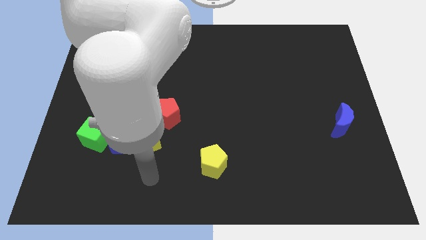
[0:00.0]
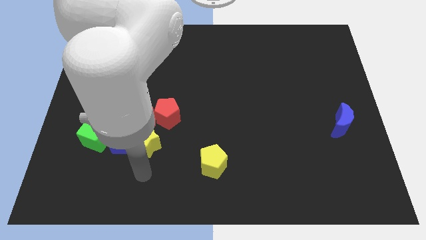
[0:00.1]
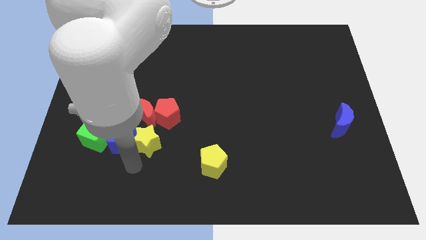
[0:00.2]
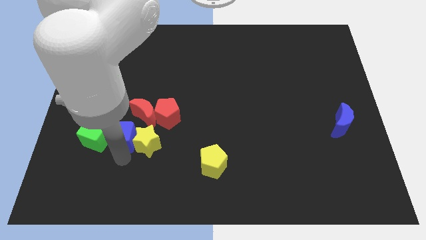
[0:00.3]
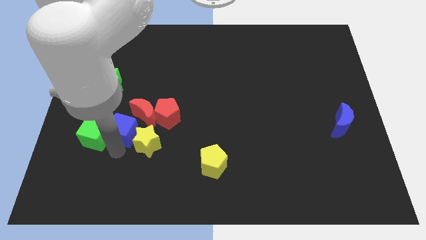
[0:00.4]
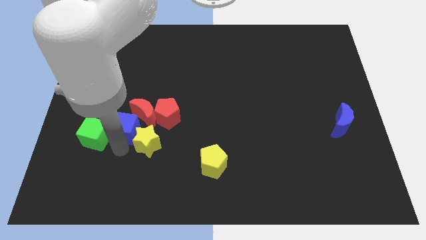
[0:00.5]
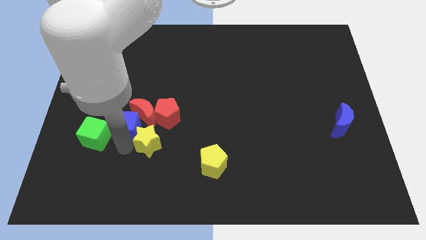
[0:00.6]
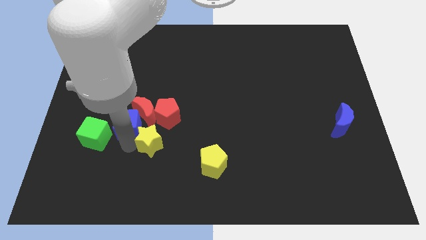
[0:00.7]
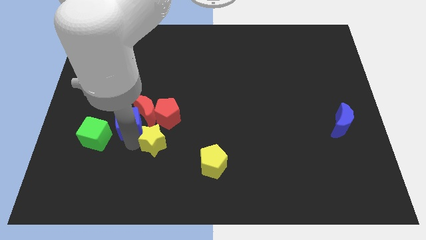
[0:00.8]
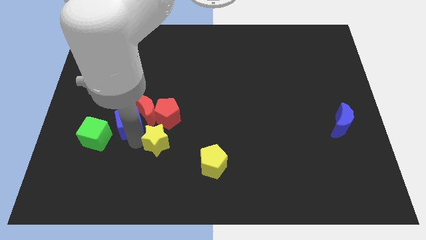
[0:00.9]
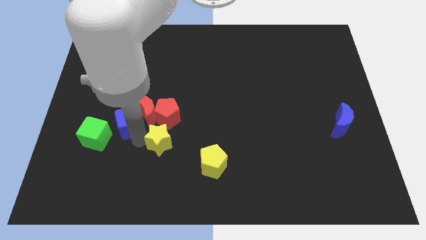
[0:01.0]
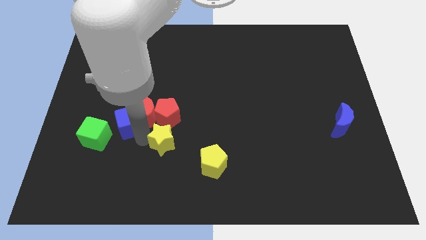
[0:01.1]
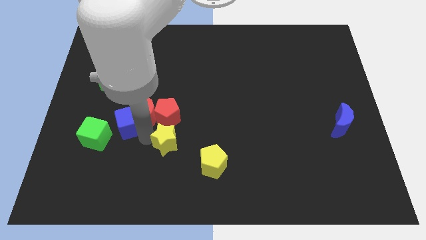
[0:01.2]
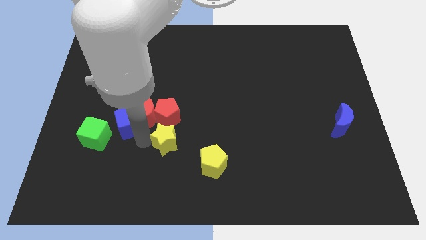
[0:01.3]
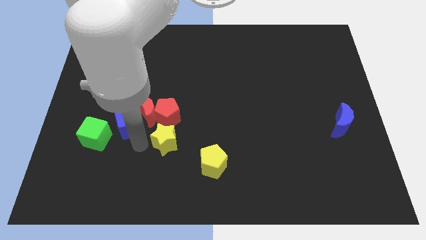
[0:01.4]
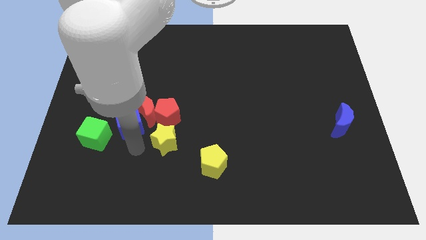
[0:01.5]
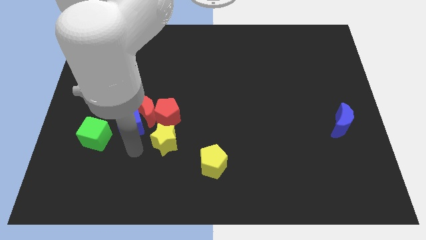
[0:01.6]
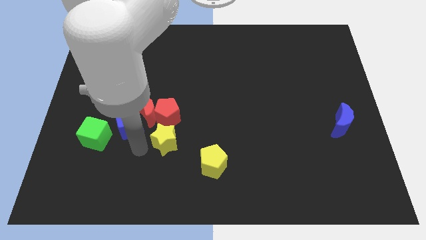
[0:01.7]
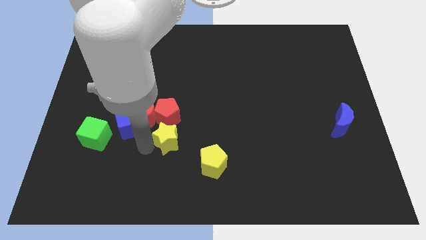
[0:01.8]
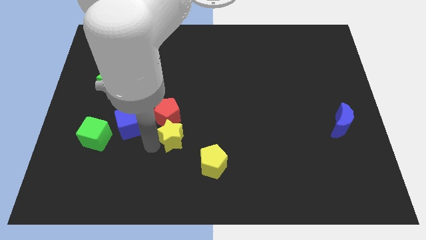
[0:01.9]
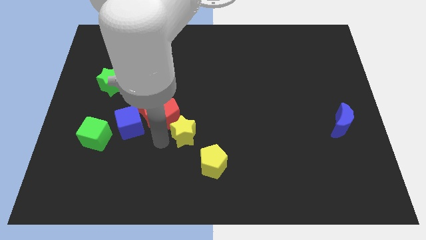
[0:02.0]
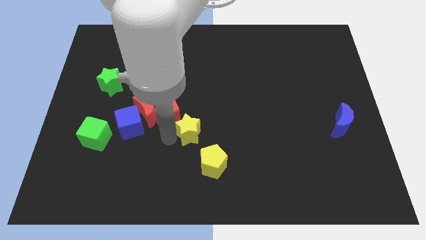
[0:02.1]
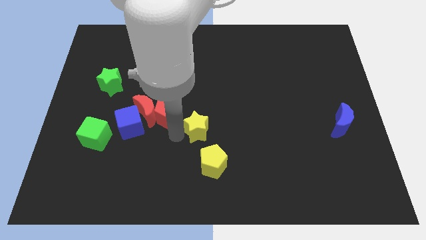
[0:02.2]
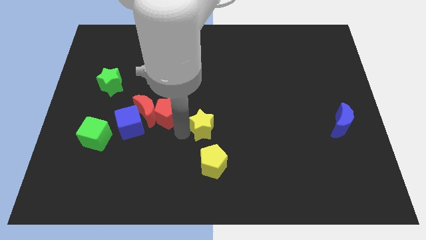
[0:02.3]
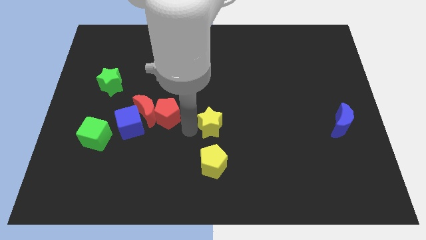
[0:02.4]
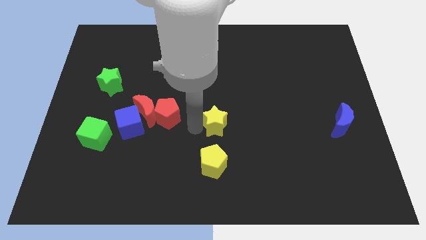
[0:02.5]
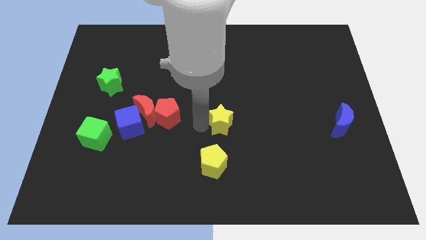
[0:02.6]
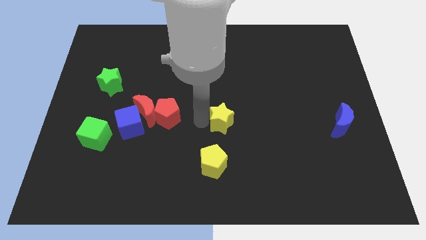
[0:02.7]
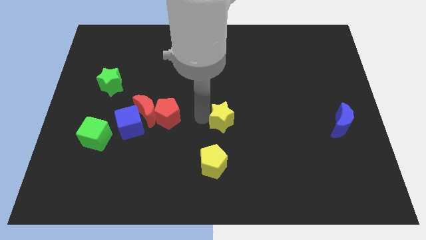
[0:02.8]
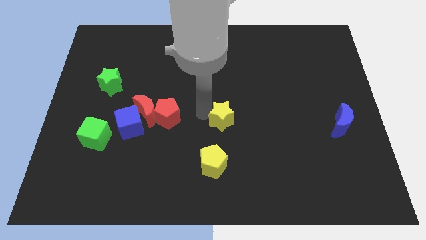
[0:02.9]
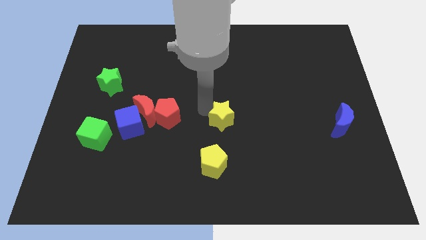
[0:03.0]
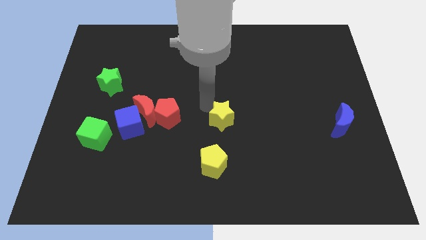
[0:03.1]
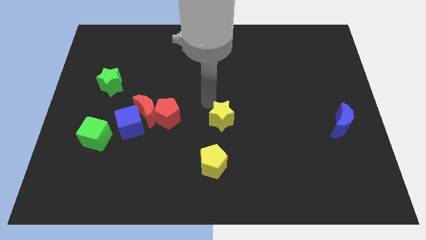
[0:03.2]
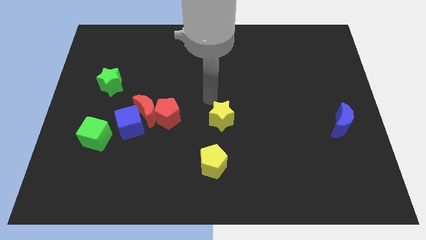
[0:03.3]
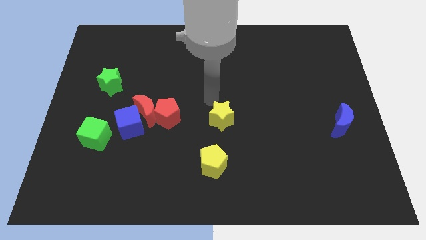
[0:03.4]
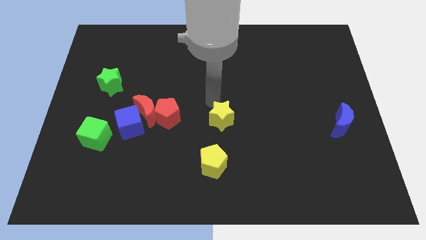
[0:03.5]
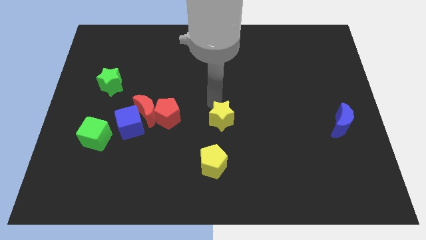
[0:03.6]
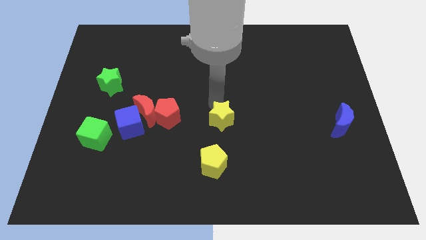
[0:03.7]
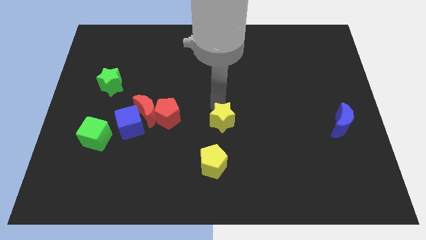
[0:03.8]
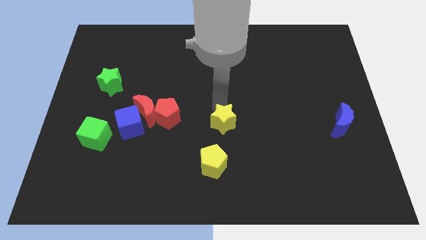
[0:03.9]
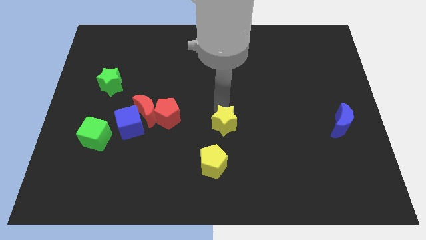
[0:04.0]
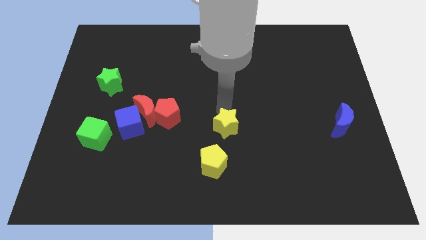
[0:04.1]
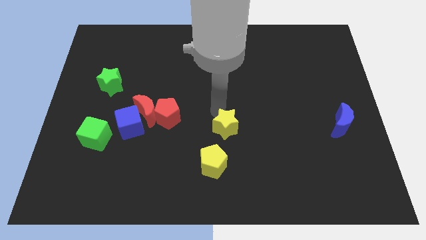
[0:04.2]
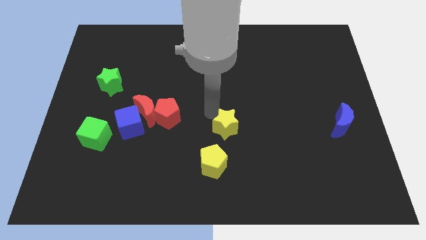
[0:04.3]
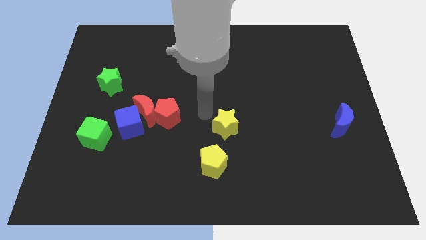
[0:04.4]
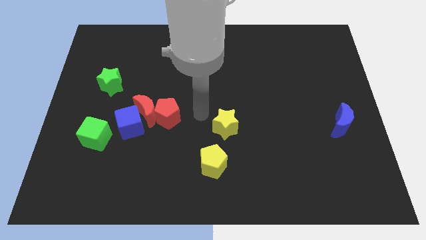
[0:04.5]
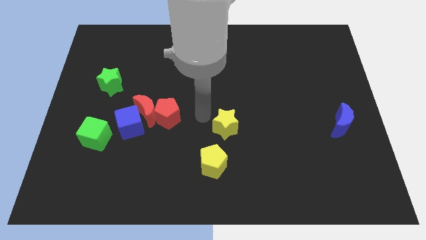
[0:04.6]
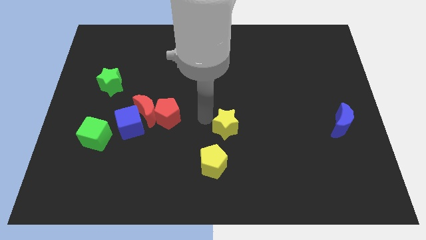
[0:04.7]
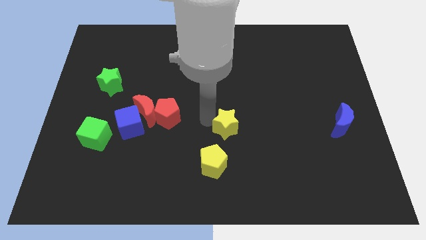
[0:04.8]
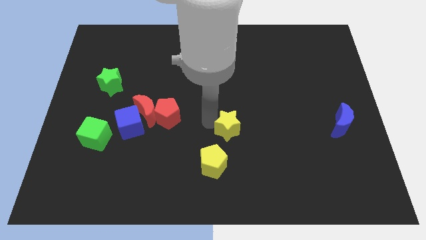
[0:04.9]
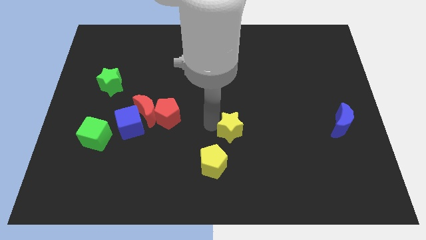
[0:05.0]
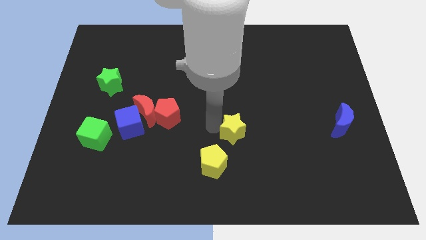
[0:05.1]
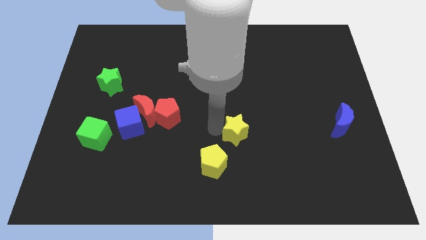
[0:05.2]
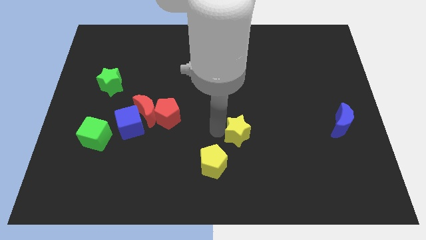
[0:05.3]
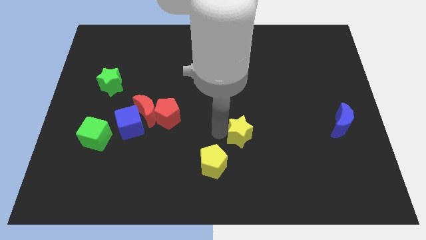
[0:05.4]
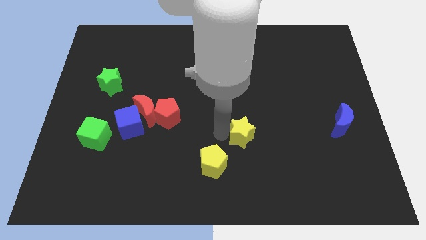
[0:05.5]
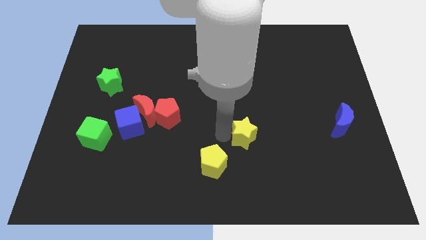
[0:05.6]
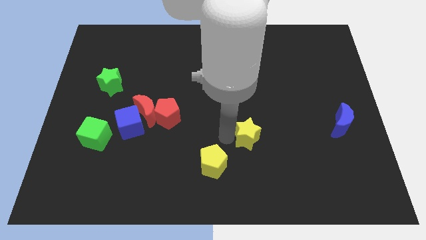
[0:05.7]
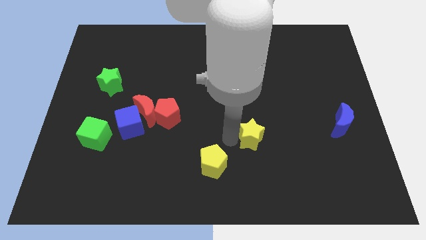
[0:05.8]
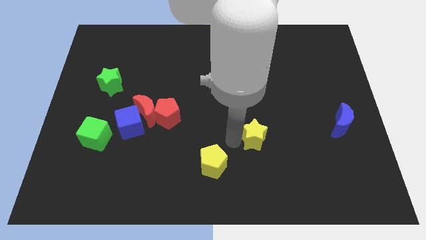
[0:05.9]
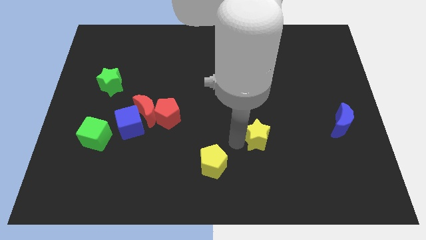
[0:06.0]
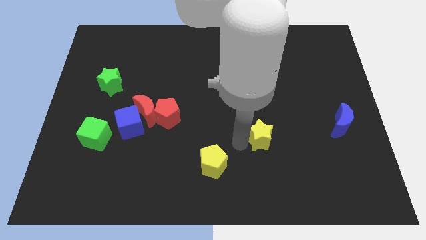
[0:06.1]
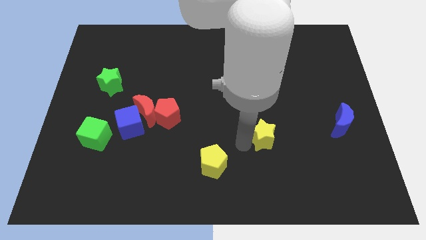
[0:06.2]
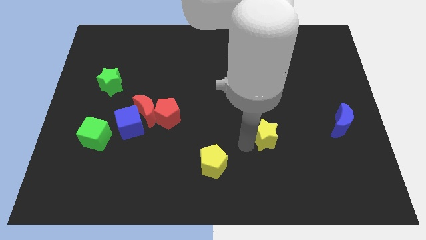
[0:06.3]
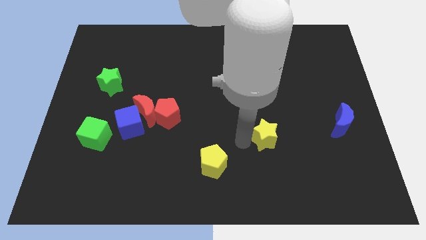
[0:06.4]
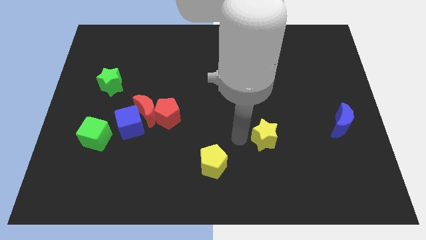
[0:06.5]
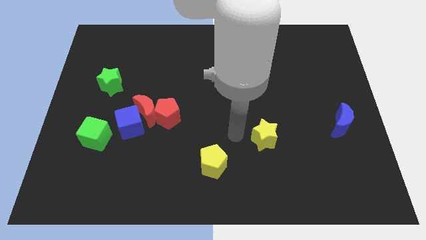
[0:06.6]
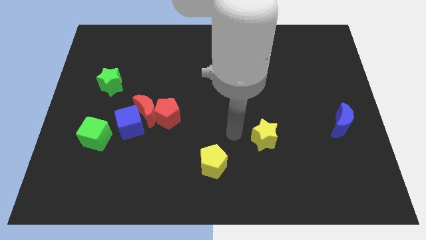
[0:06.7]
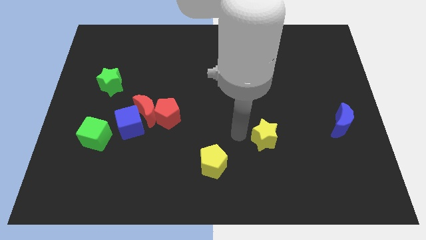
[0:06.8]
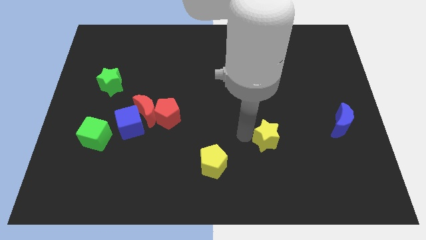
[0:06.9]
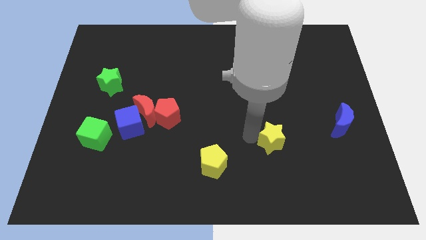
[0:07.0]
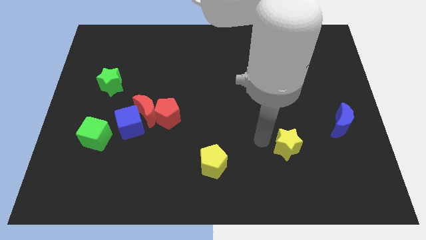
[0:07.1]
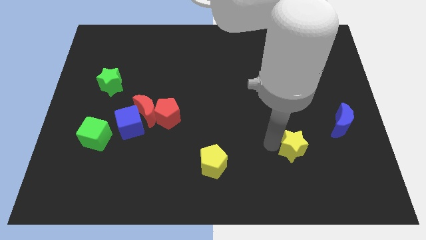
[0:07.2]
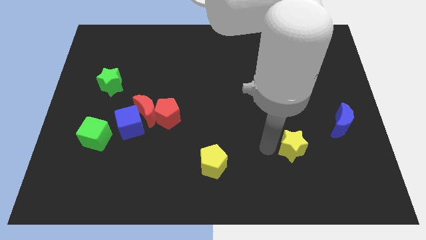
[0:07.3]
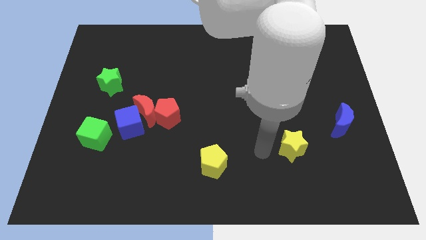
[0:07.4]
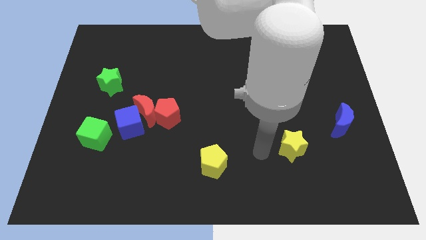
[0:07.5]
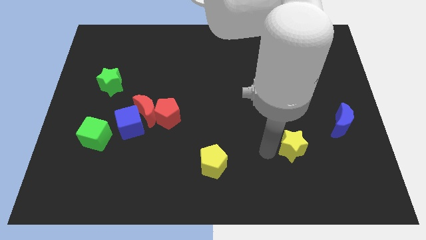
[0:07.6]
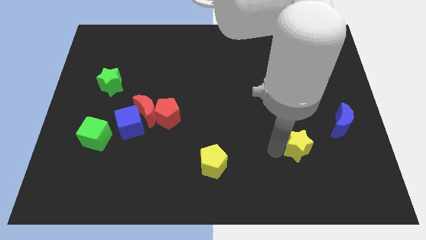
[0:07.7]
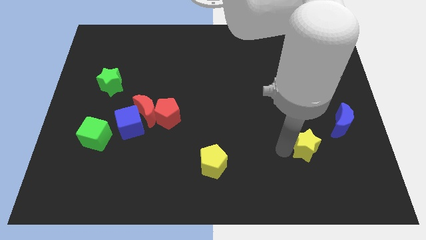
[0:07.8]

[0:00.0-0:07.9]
put the yellow star to the bottom left side of the blue moon
